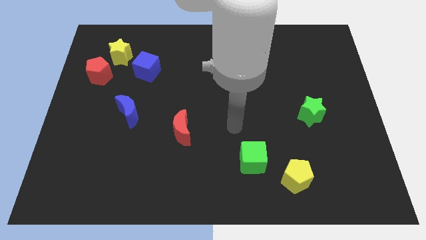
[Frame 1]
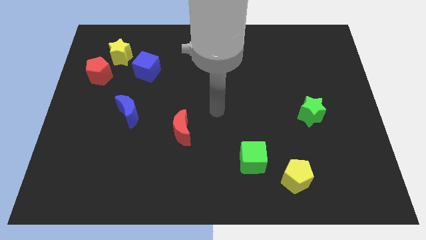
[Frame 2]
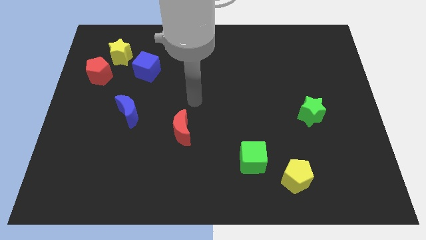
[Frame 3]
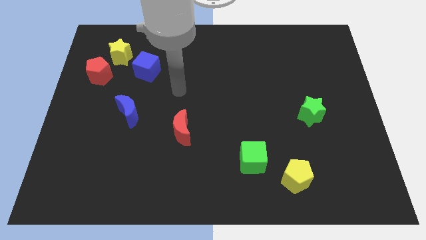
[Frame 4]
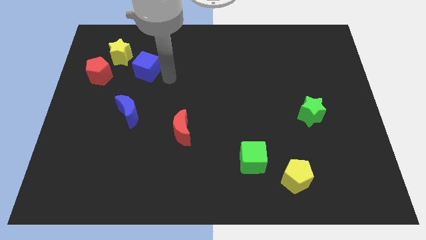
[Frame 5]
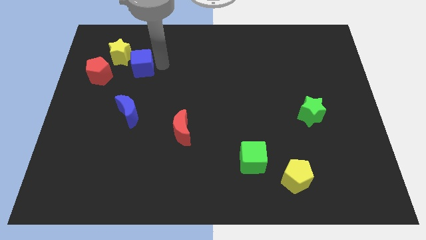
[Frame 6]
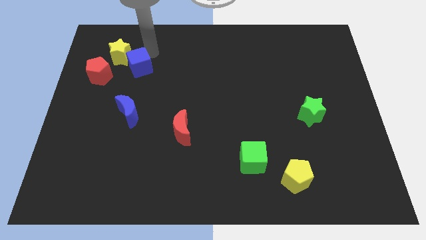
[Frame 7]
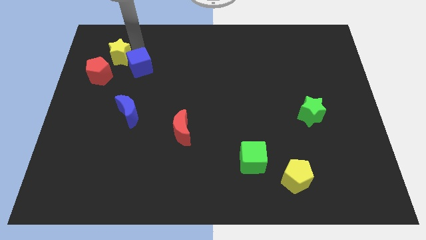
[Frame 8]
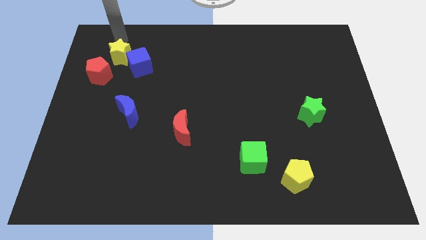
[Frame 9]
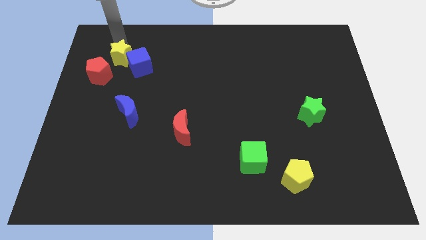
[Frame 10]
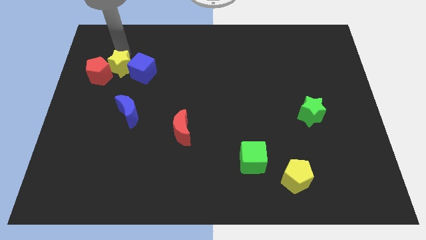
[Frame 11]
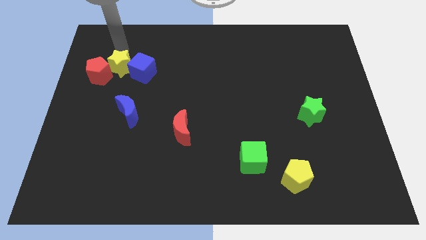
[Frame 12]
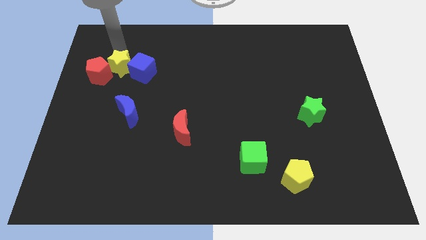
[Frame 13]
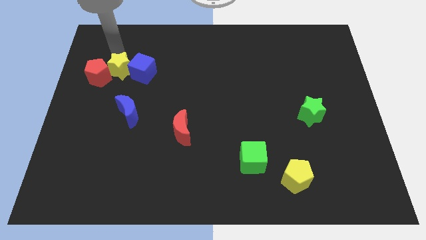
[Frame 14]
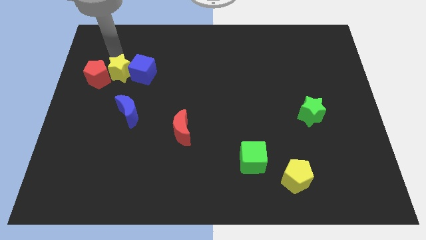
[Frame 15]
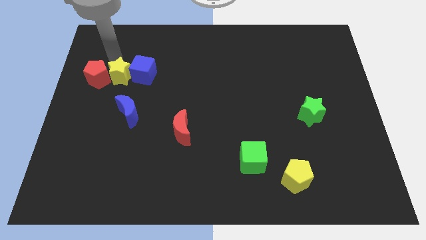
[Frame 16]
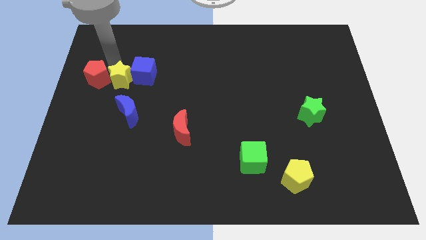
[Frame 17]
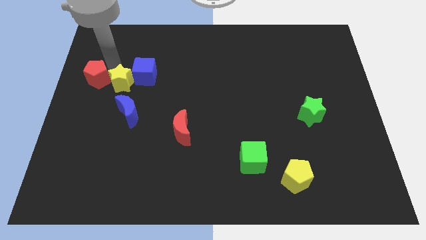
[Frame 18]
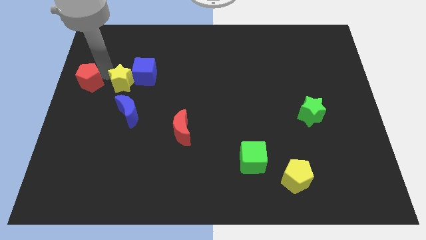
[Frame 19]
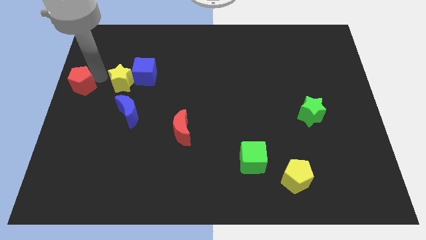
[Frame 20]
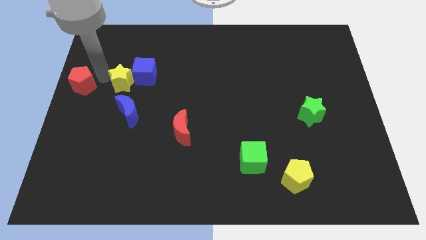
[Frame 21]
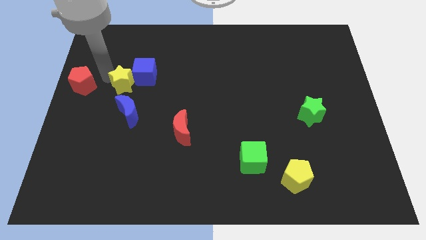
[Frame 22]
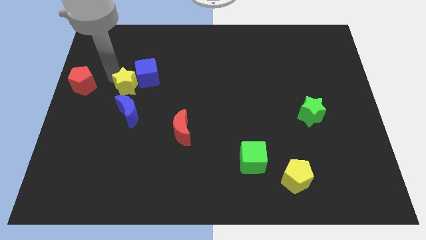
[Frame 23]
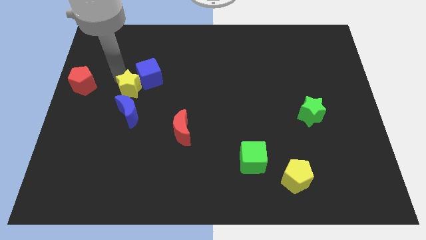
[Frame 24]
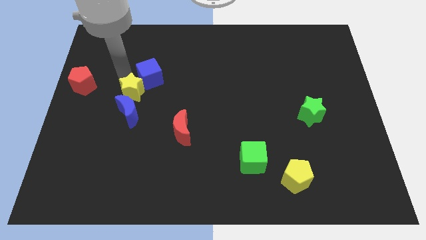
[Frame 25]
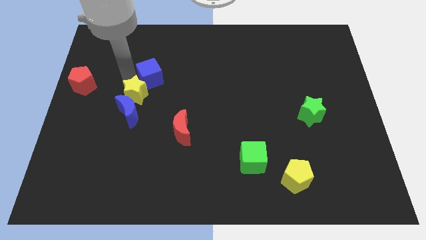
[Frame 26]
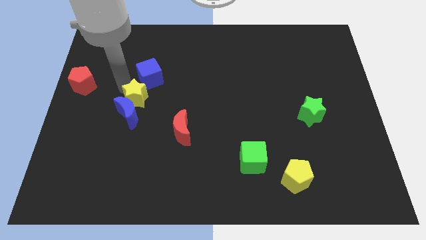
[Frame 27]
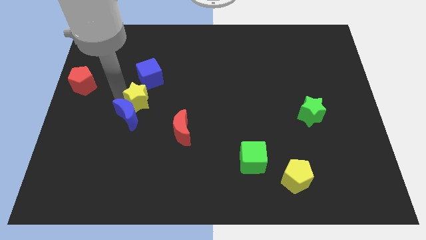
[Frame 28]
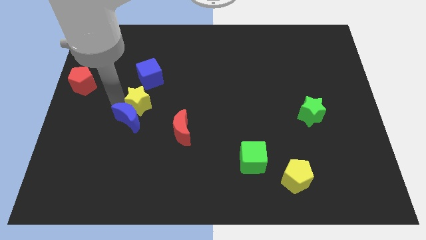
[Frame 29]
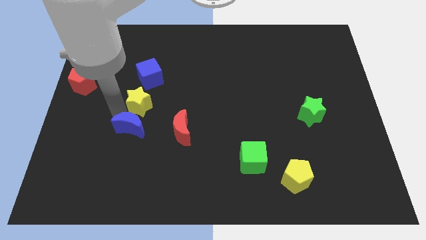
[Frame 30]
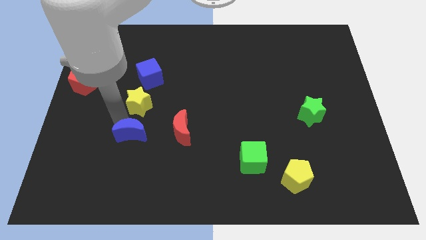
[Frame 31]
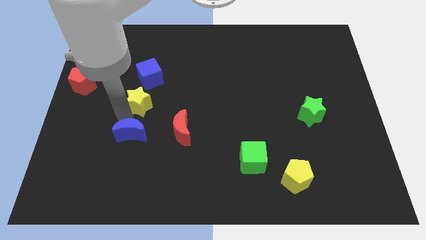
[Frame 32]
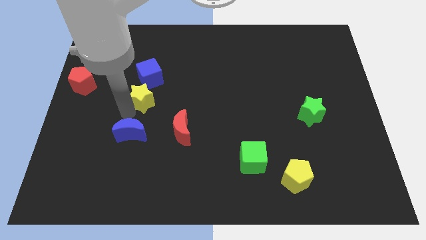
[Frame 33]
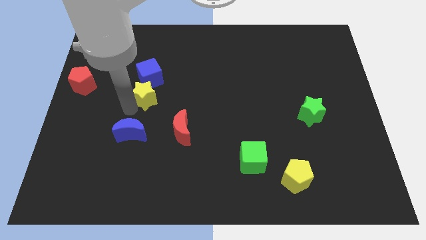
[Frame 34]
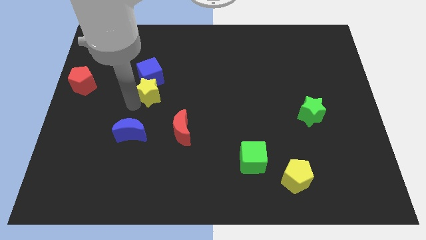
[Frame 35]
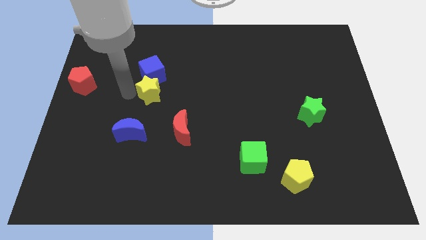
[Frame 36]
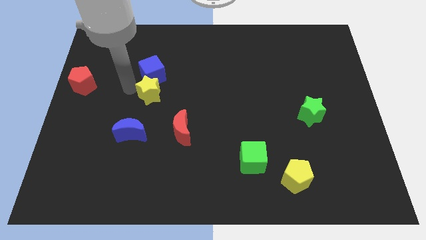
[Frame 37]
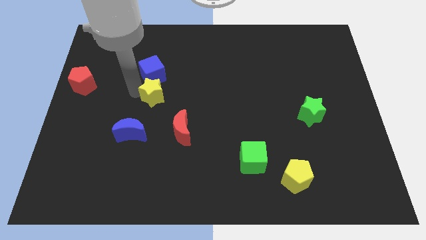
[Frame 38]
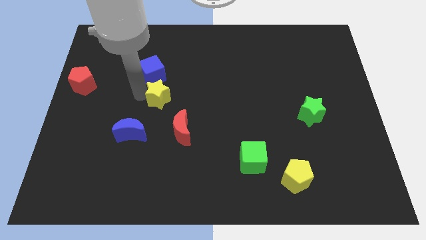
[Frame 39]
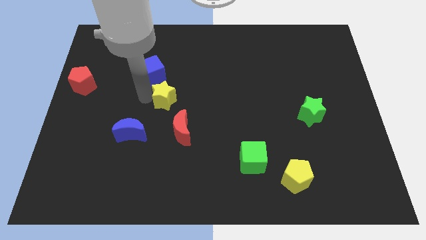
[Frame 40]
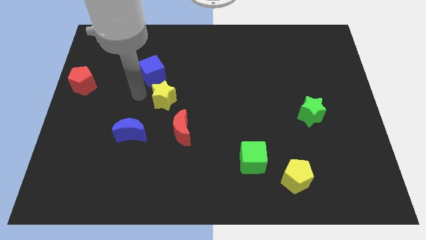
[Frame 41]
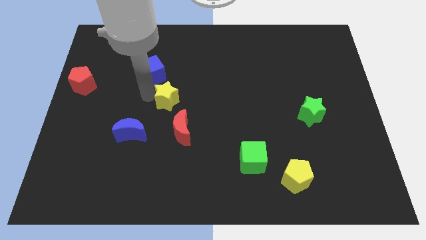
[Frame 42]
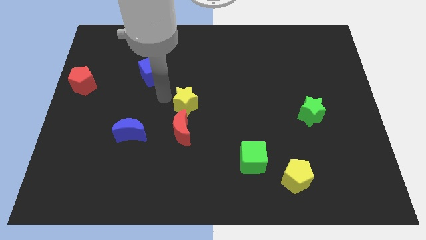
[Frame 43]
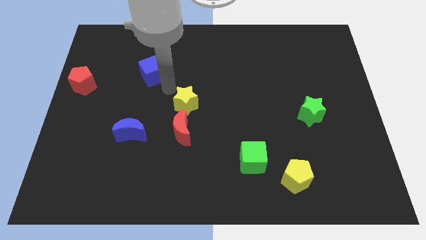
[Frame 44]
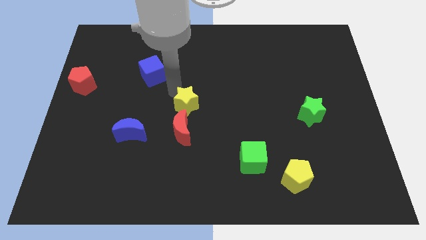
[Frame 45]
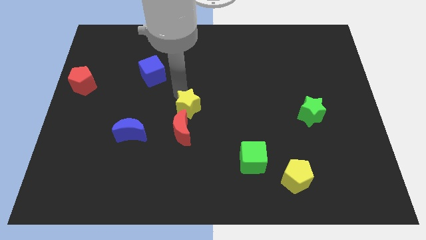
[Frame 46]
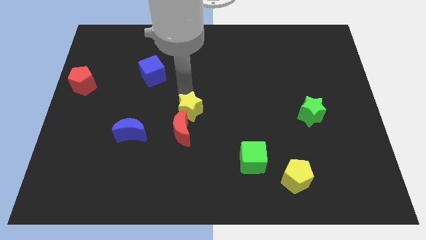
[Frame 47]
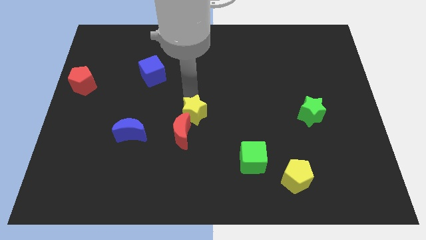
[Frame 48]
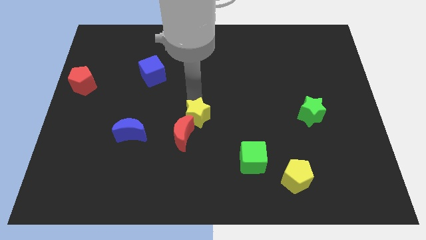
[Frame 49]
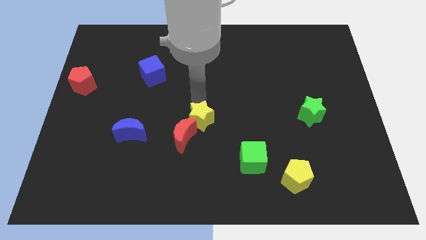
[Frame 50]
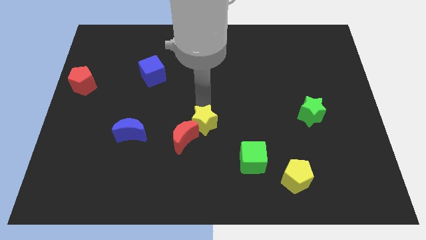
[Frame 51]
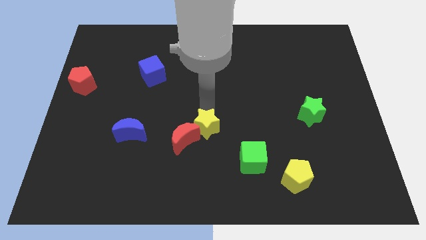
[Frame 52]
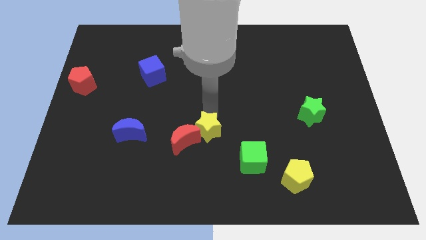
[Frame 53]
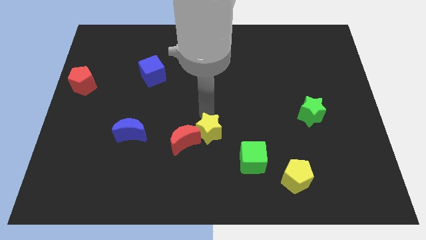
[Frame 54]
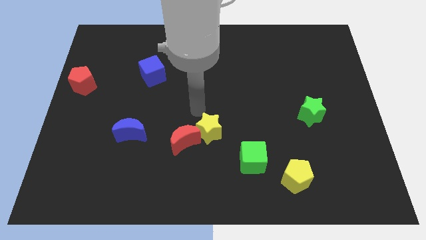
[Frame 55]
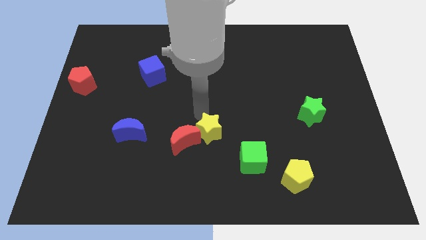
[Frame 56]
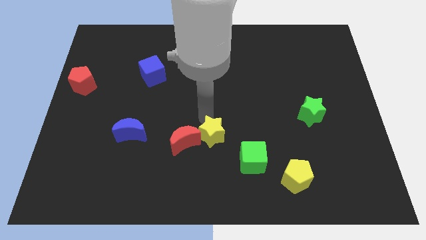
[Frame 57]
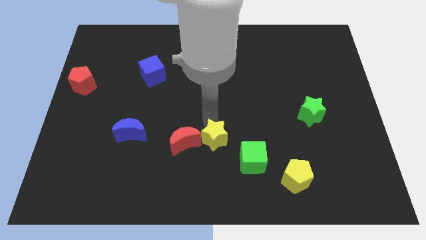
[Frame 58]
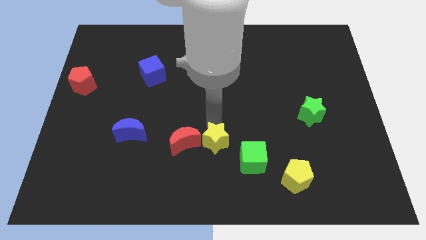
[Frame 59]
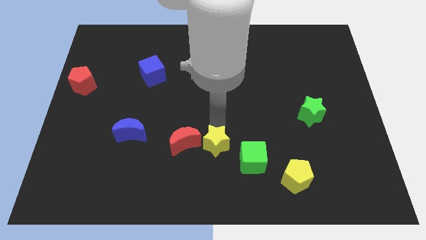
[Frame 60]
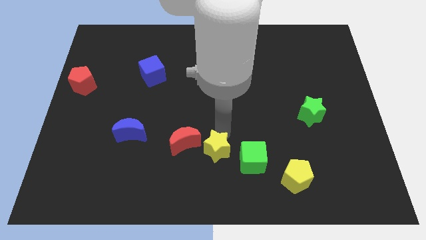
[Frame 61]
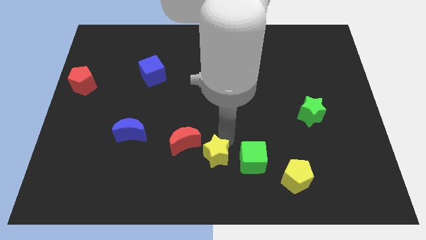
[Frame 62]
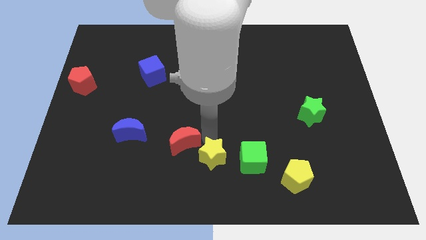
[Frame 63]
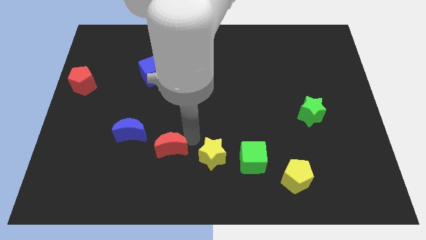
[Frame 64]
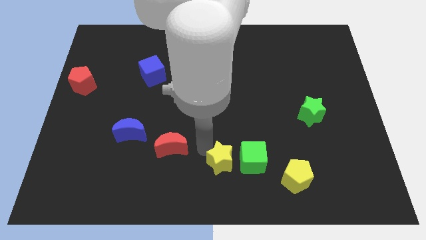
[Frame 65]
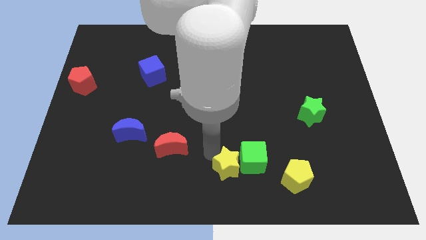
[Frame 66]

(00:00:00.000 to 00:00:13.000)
put the yellow star left of the yellow pentagon

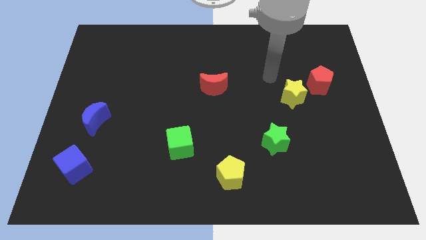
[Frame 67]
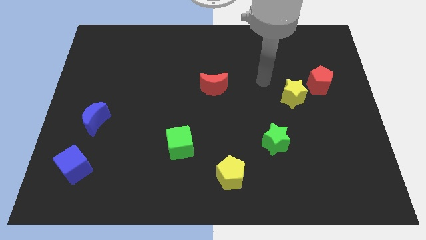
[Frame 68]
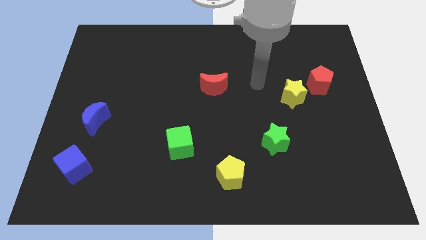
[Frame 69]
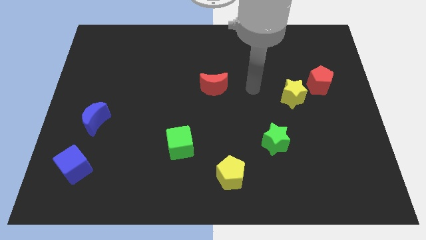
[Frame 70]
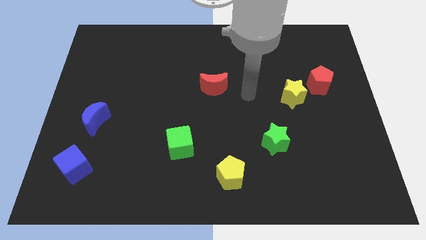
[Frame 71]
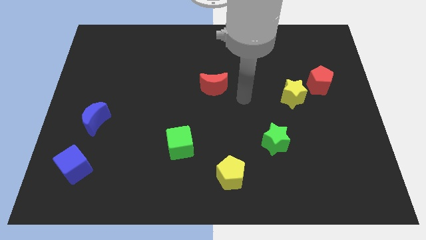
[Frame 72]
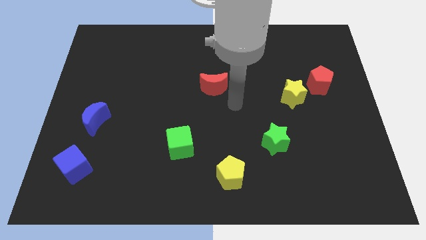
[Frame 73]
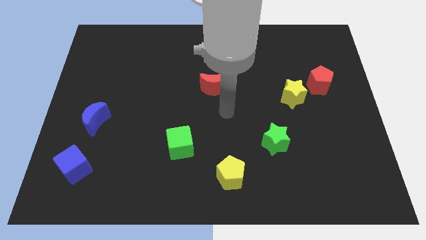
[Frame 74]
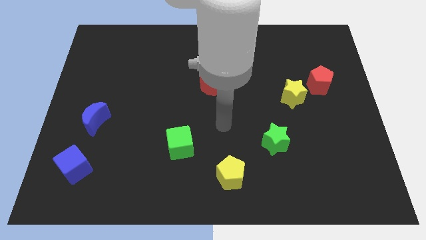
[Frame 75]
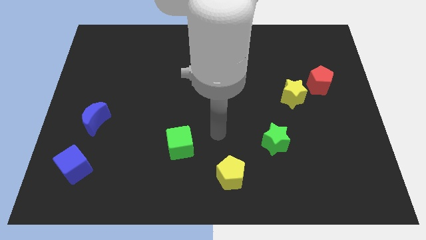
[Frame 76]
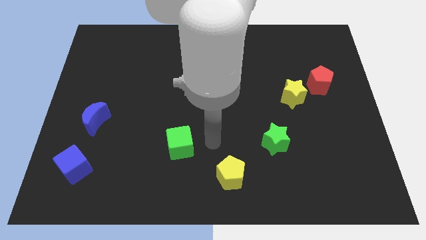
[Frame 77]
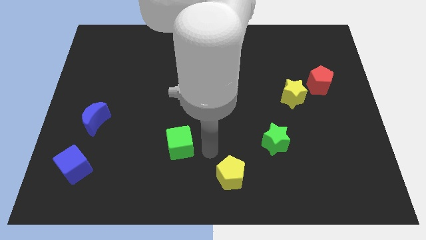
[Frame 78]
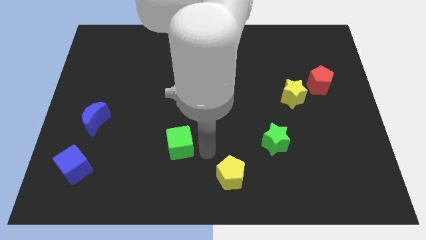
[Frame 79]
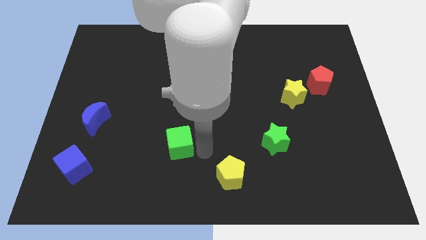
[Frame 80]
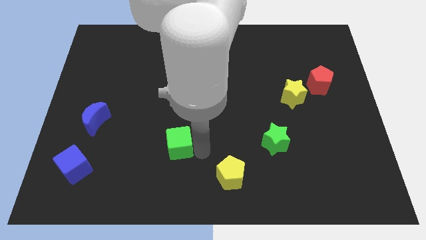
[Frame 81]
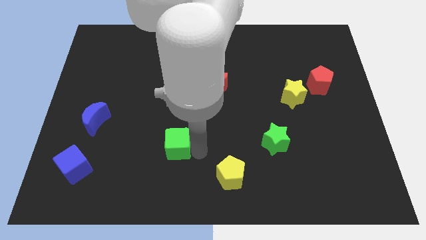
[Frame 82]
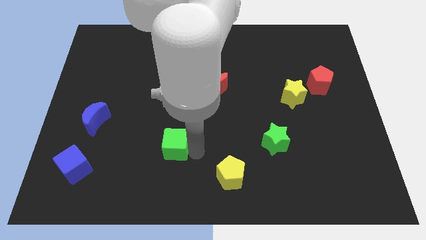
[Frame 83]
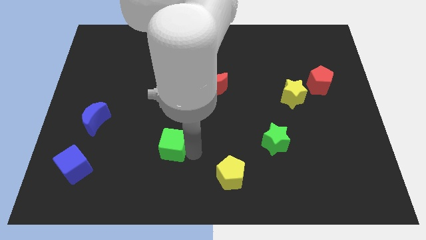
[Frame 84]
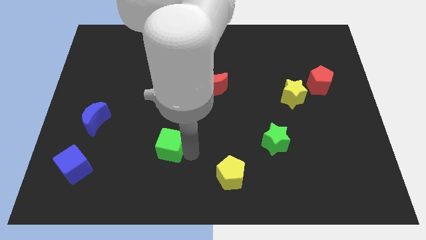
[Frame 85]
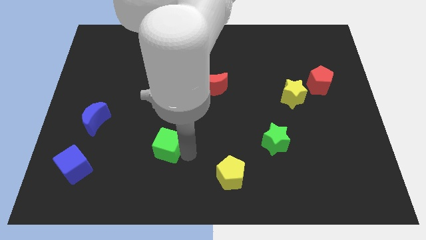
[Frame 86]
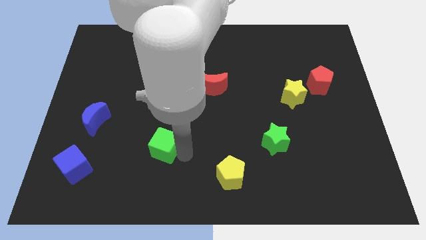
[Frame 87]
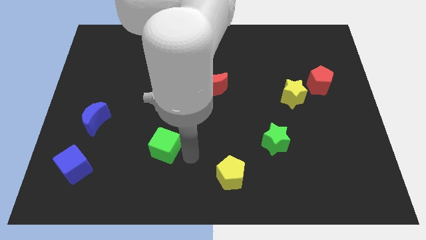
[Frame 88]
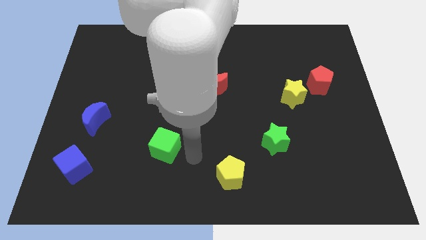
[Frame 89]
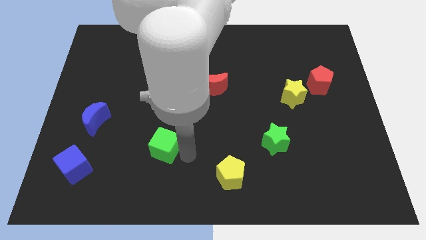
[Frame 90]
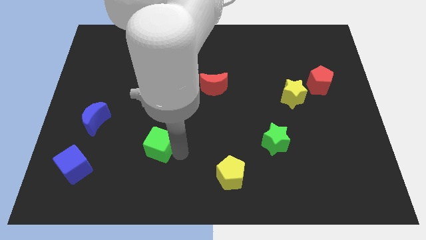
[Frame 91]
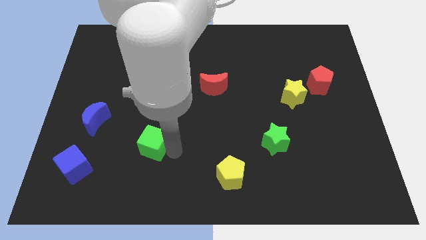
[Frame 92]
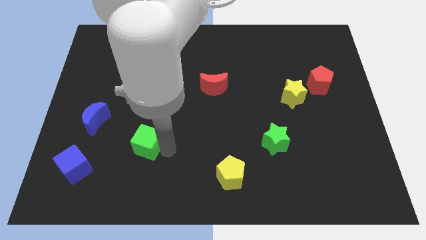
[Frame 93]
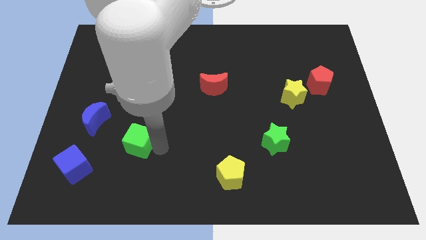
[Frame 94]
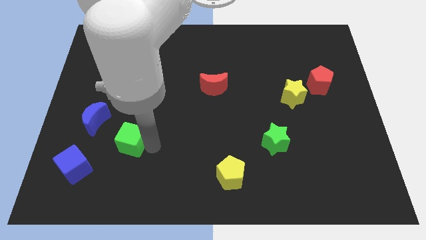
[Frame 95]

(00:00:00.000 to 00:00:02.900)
slide the green cube diagonally down and to the right of the blue moon
